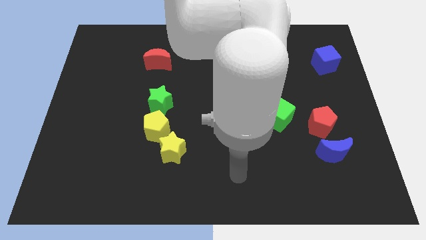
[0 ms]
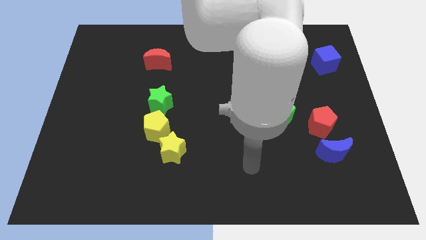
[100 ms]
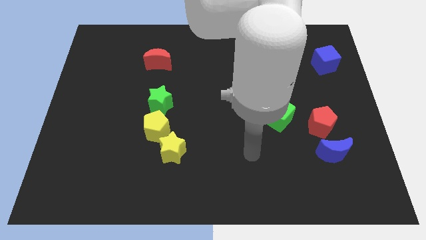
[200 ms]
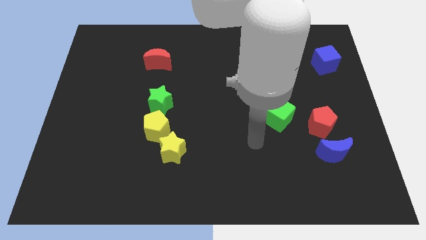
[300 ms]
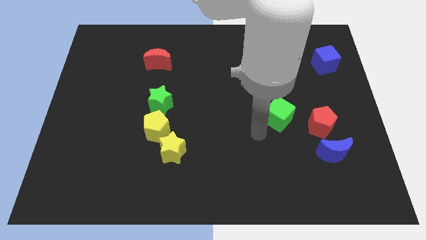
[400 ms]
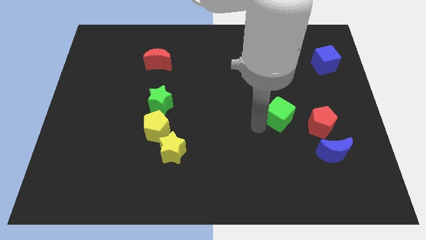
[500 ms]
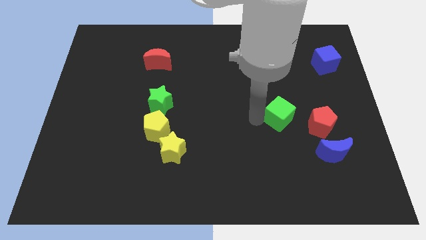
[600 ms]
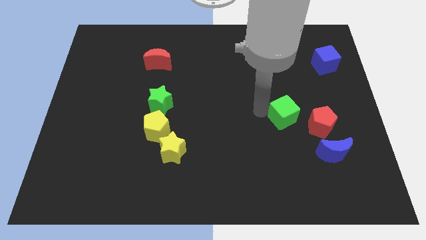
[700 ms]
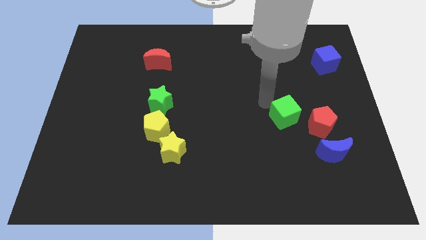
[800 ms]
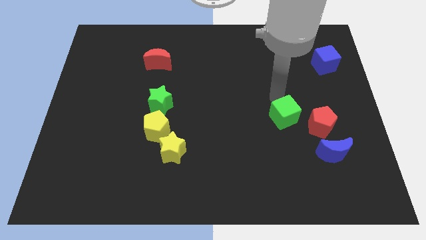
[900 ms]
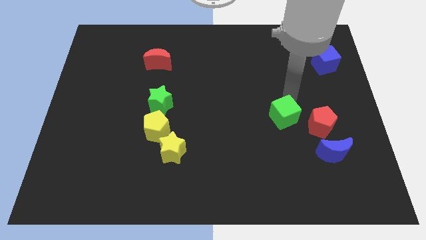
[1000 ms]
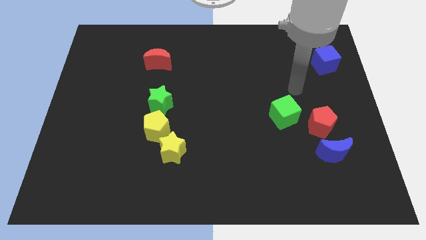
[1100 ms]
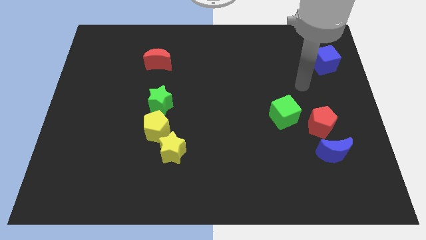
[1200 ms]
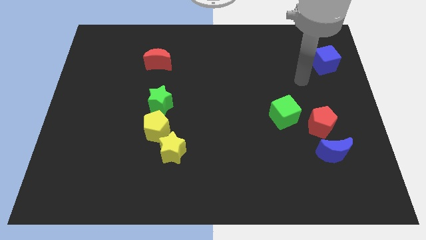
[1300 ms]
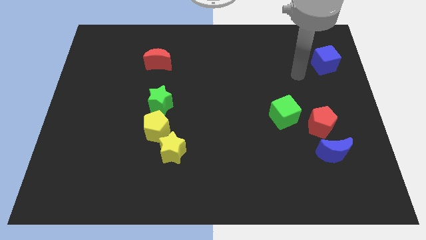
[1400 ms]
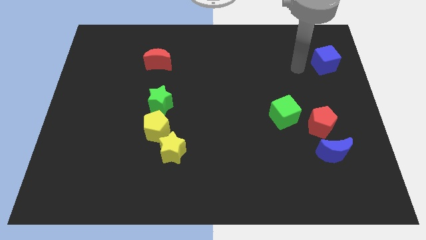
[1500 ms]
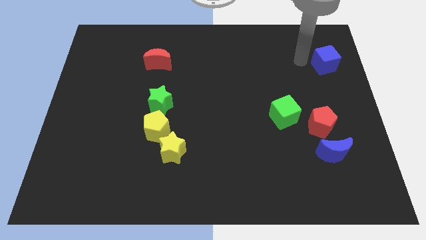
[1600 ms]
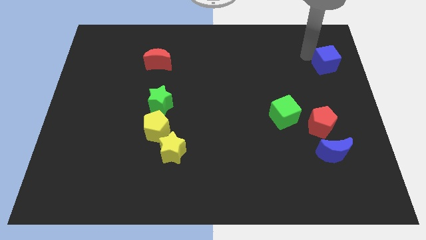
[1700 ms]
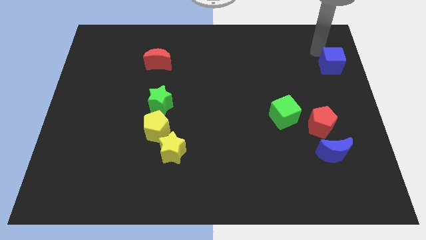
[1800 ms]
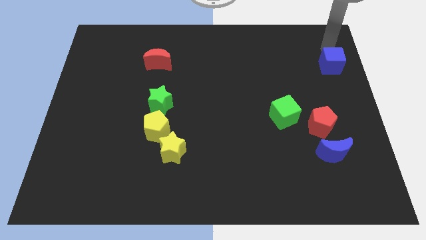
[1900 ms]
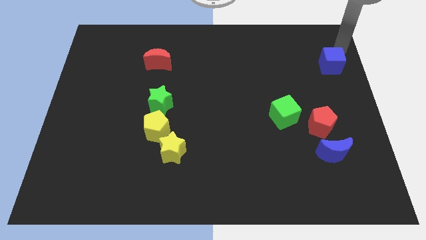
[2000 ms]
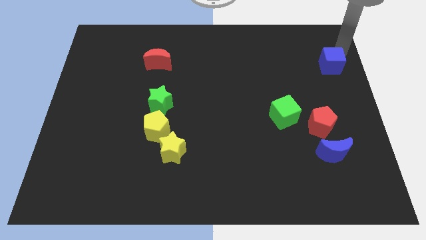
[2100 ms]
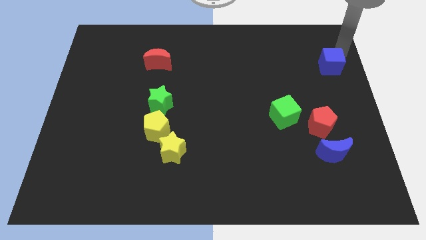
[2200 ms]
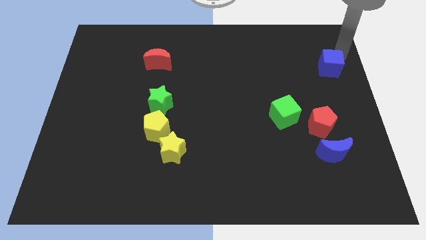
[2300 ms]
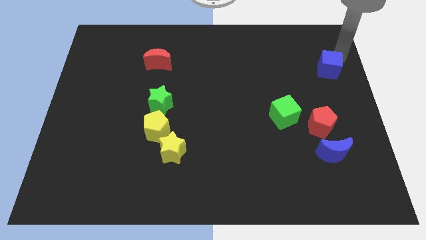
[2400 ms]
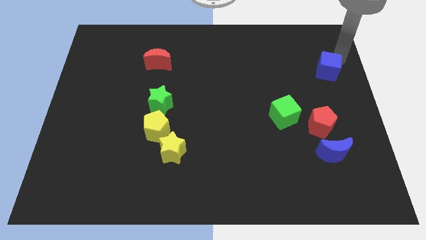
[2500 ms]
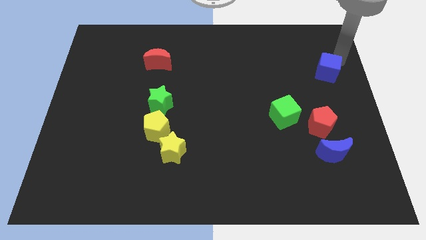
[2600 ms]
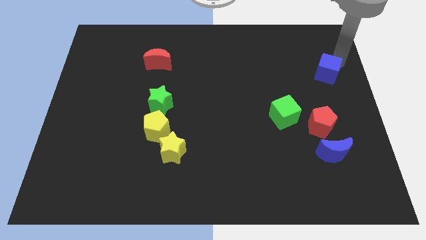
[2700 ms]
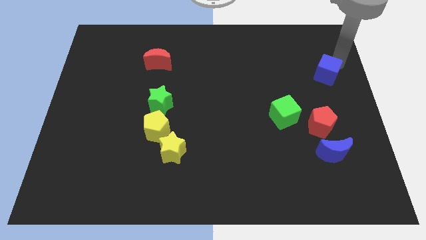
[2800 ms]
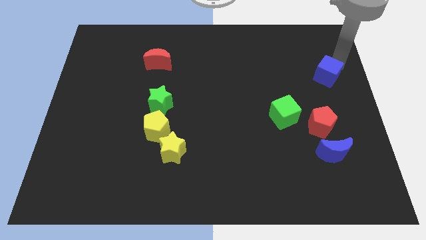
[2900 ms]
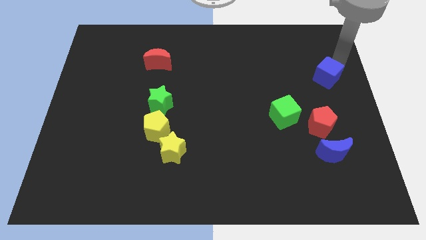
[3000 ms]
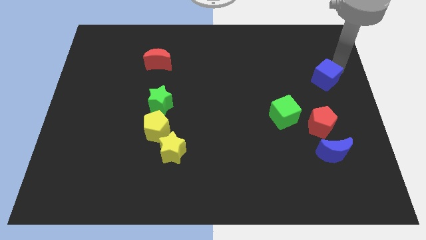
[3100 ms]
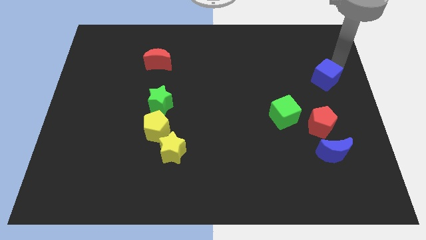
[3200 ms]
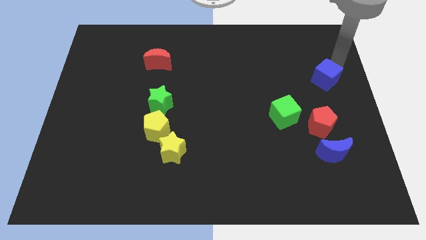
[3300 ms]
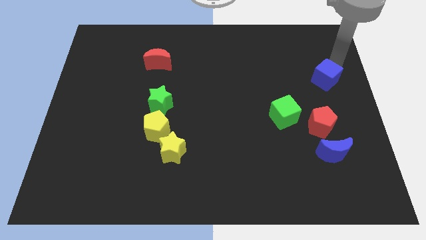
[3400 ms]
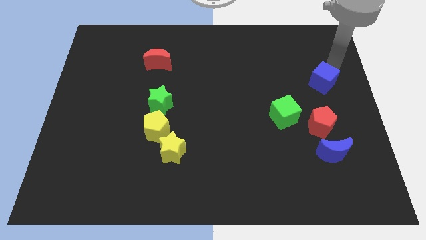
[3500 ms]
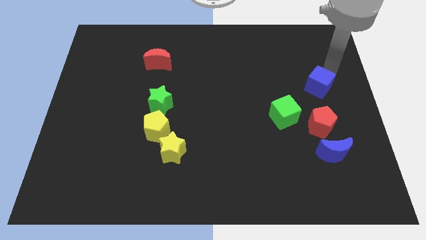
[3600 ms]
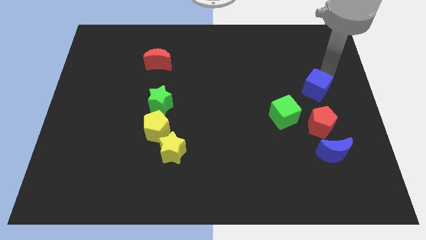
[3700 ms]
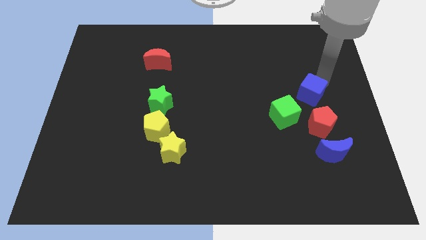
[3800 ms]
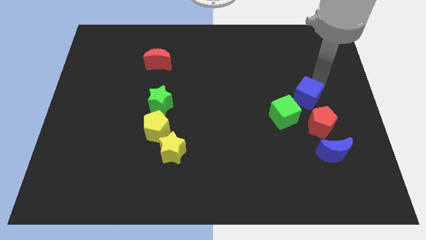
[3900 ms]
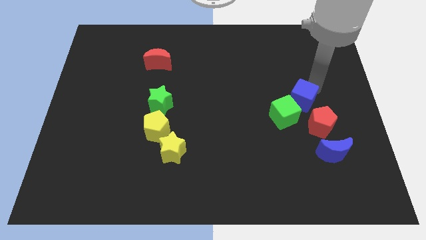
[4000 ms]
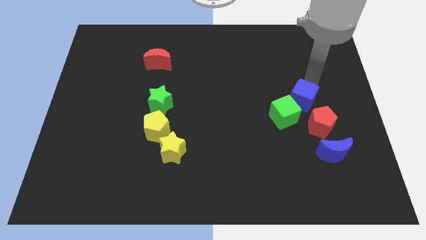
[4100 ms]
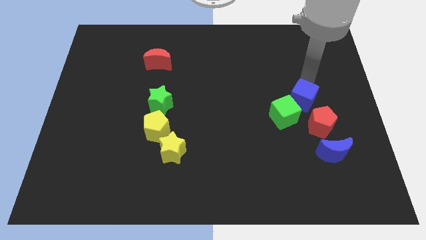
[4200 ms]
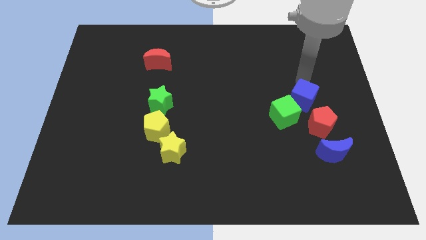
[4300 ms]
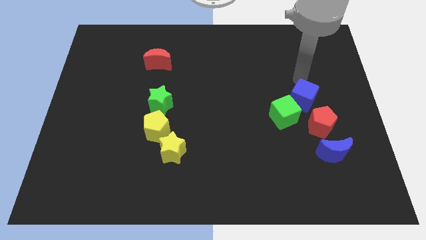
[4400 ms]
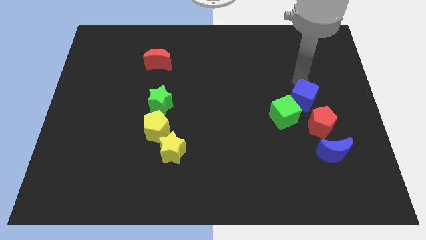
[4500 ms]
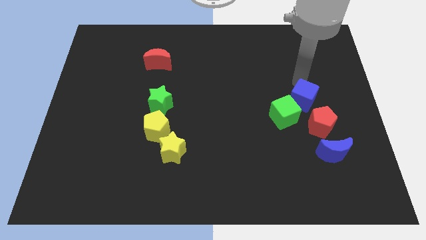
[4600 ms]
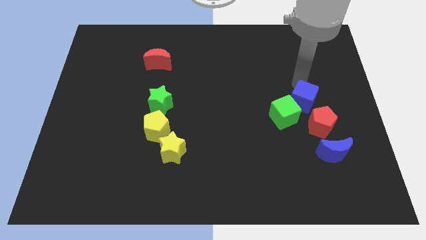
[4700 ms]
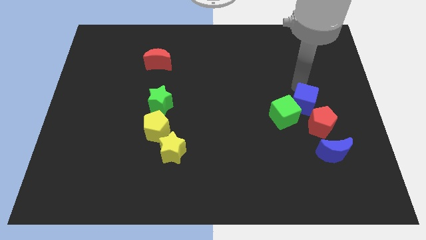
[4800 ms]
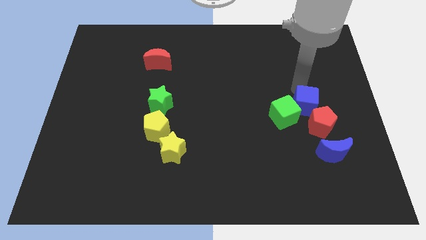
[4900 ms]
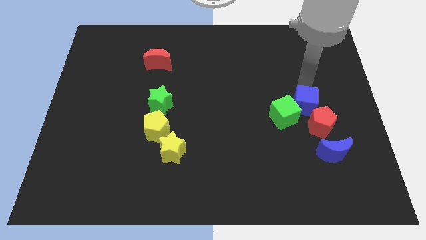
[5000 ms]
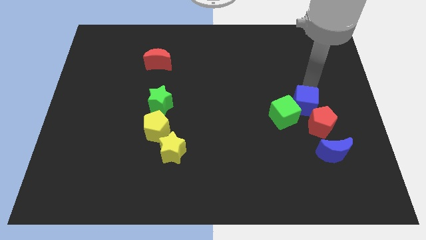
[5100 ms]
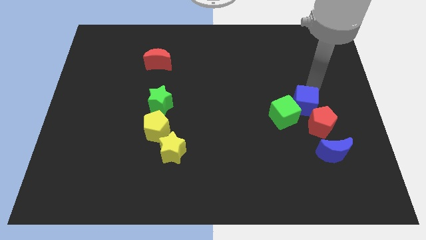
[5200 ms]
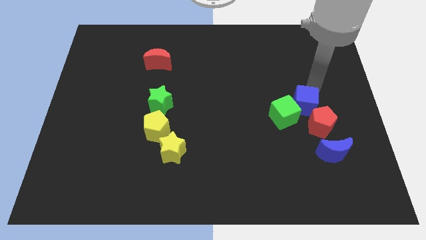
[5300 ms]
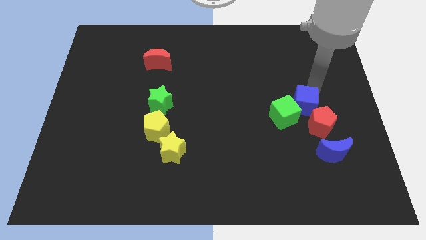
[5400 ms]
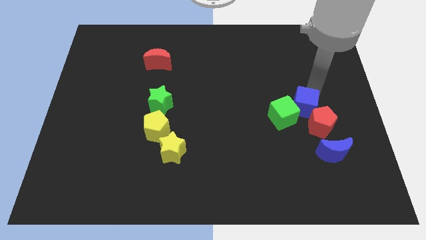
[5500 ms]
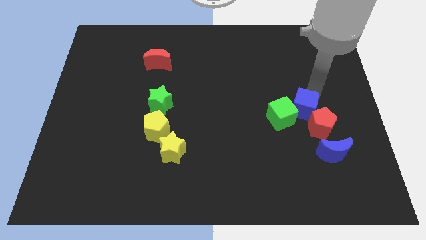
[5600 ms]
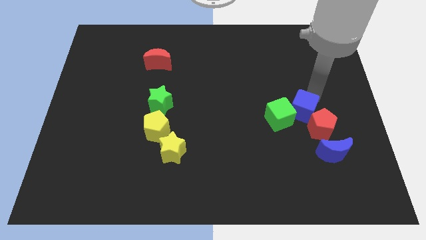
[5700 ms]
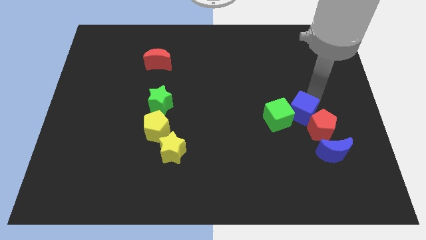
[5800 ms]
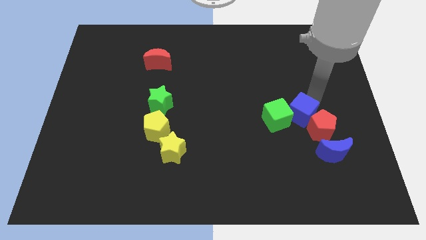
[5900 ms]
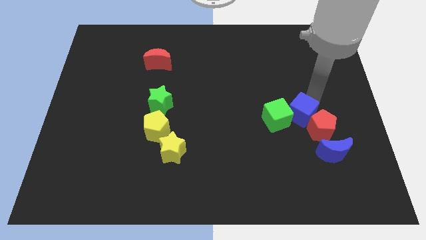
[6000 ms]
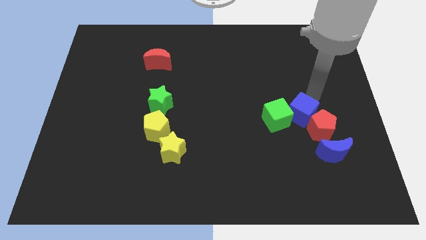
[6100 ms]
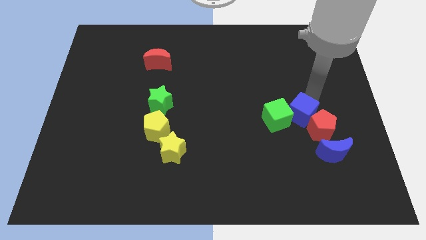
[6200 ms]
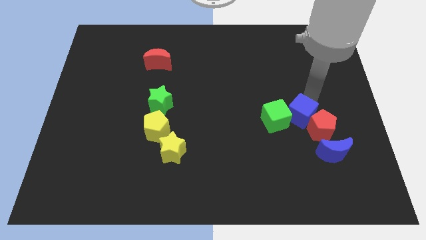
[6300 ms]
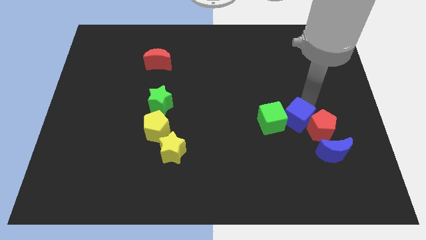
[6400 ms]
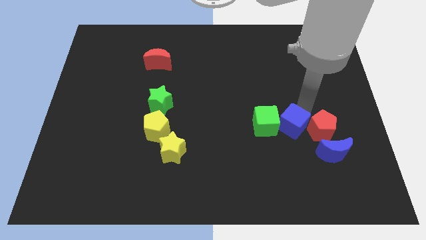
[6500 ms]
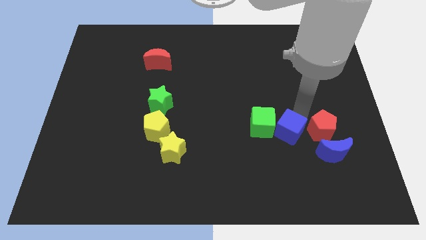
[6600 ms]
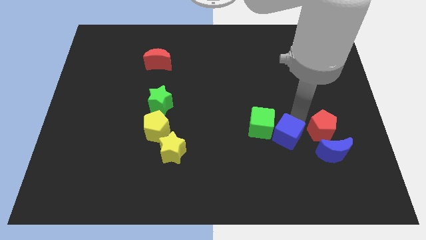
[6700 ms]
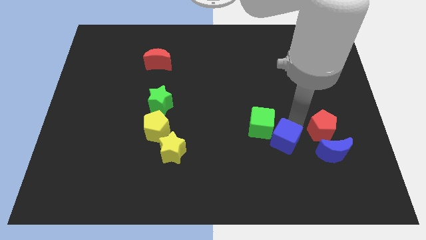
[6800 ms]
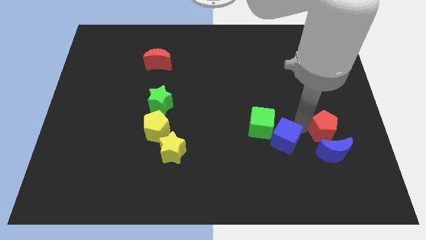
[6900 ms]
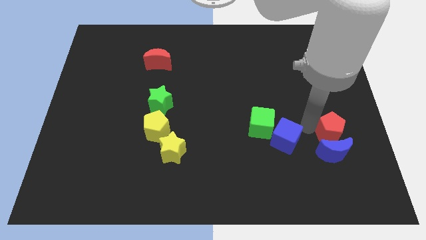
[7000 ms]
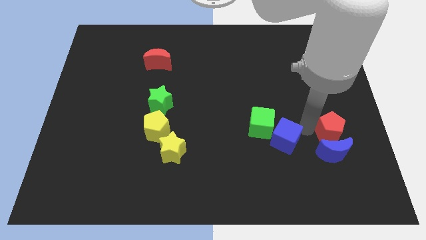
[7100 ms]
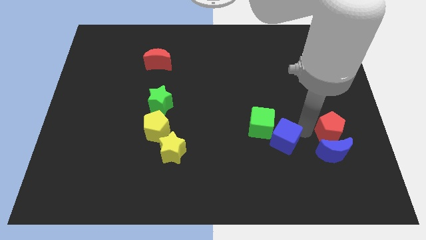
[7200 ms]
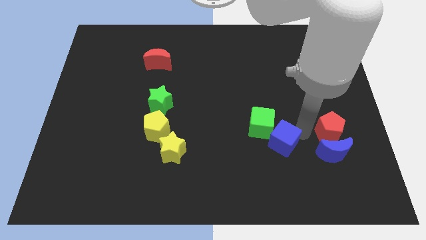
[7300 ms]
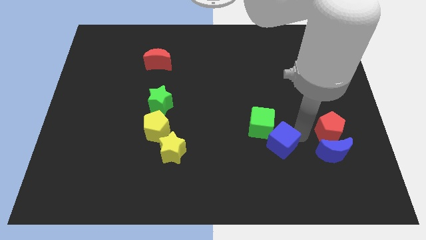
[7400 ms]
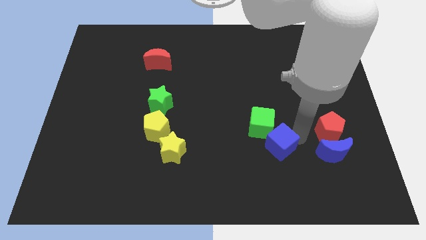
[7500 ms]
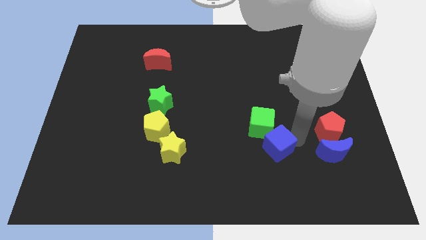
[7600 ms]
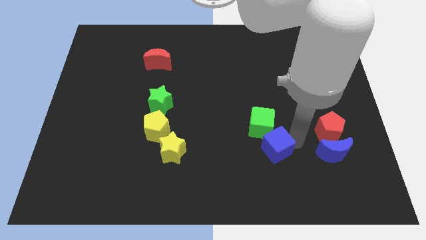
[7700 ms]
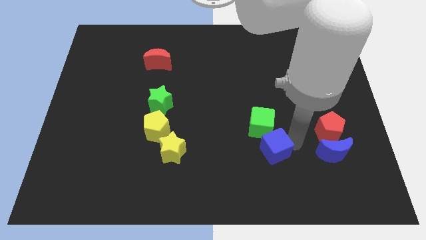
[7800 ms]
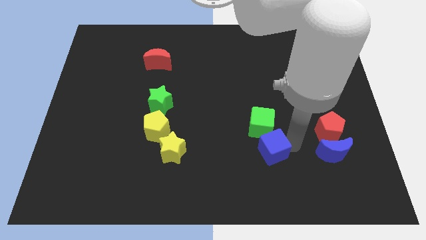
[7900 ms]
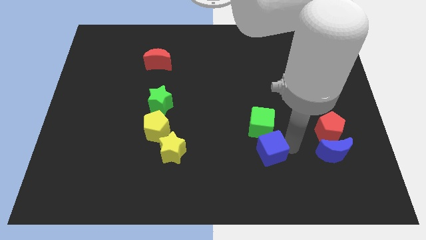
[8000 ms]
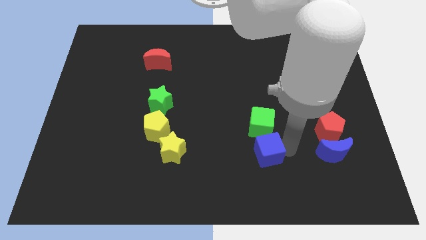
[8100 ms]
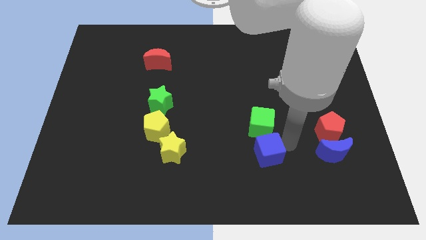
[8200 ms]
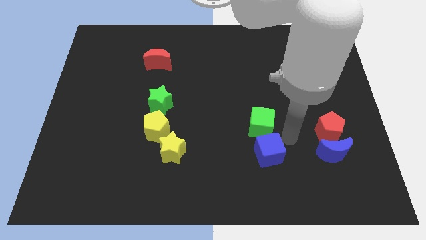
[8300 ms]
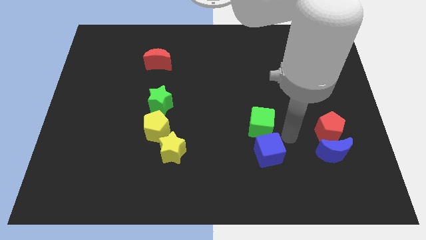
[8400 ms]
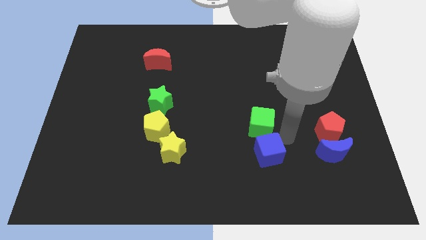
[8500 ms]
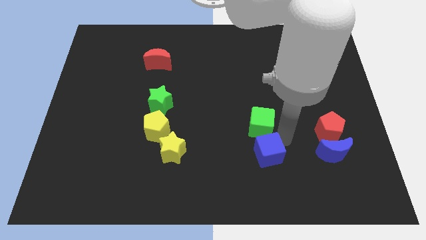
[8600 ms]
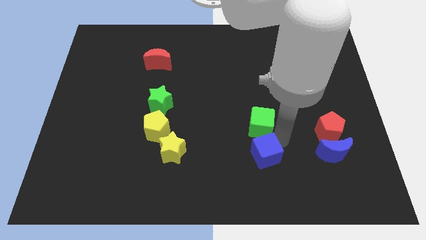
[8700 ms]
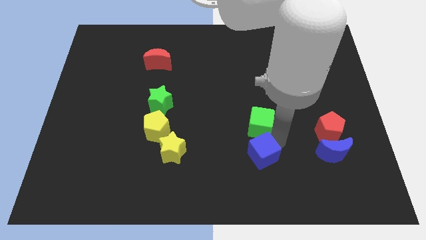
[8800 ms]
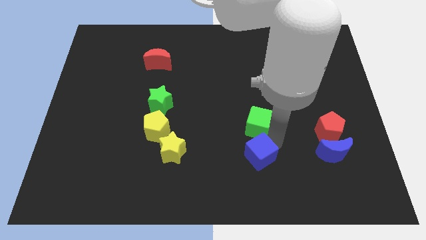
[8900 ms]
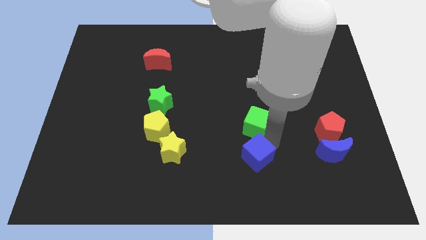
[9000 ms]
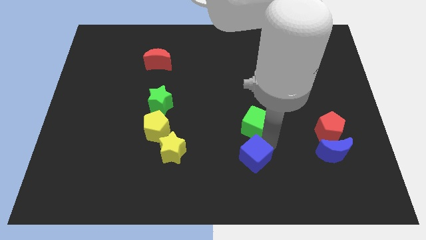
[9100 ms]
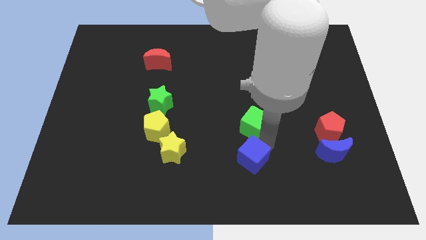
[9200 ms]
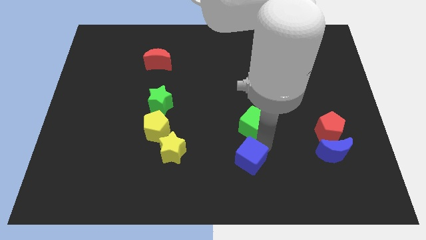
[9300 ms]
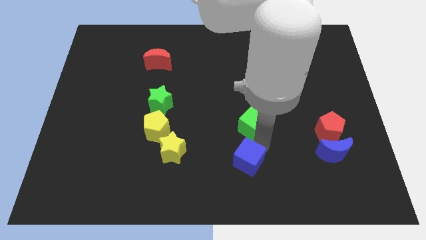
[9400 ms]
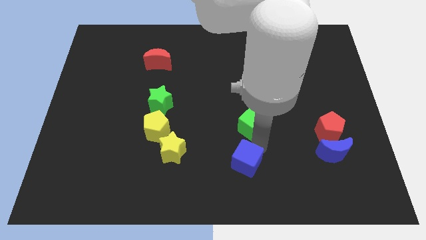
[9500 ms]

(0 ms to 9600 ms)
put the blue cube to the bottom
